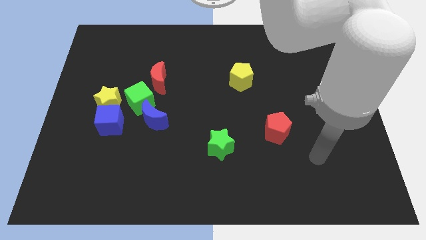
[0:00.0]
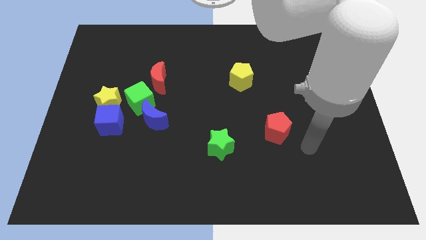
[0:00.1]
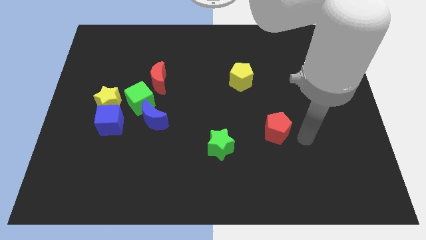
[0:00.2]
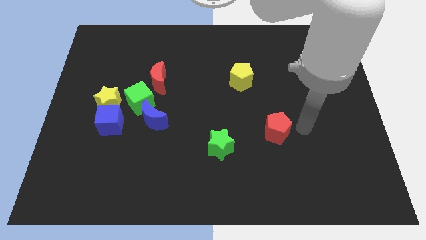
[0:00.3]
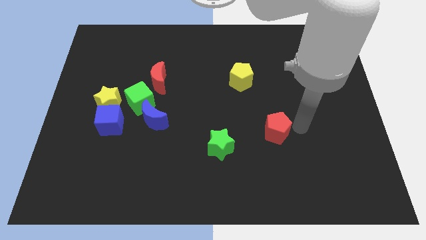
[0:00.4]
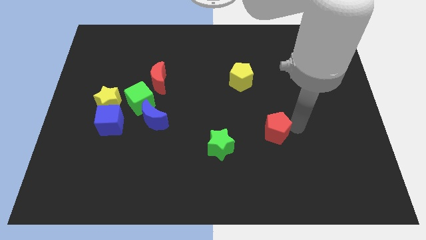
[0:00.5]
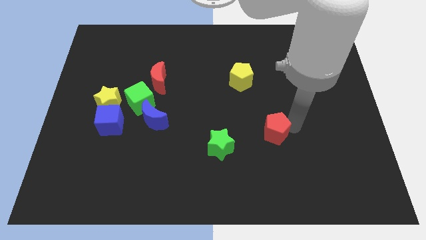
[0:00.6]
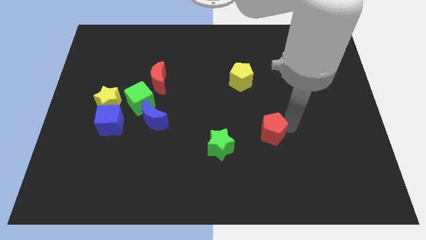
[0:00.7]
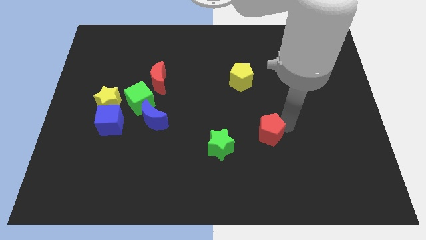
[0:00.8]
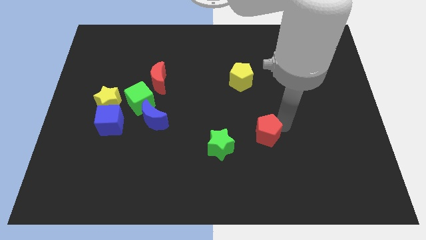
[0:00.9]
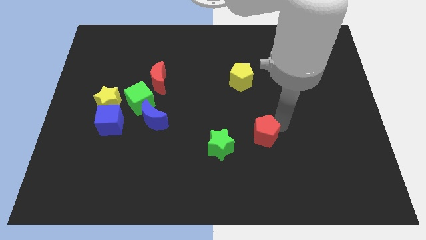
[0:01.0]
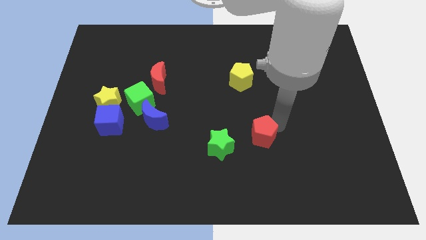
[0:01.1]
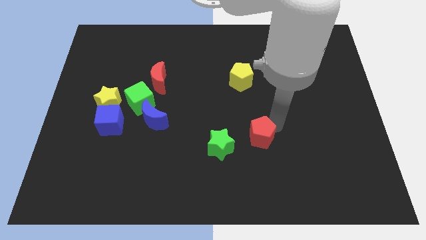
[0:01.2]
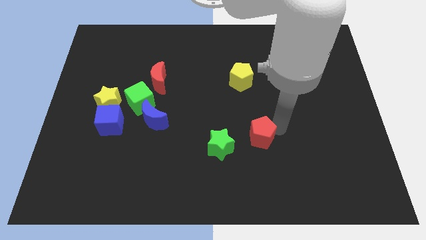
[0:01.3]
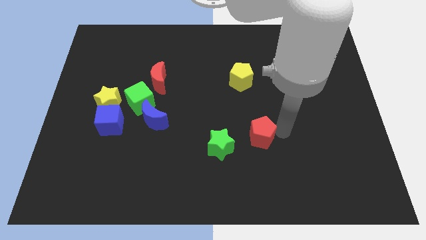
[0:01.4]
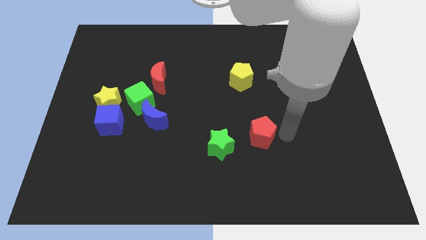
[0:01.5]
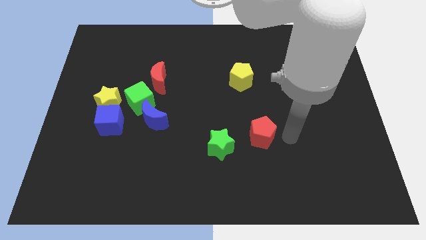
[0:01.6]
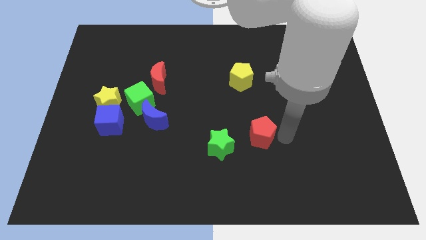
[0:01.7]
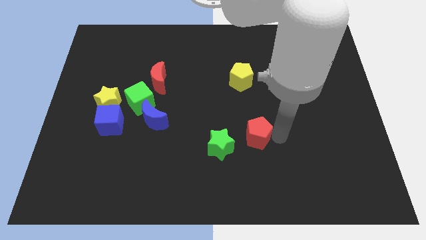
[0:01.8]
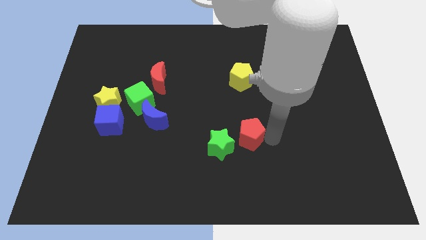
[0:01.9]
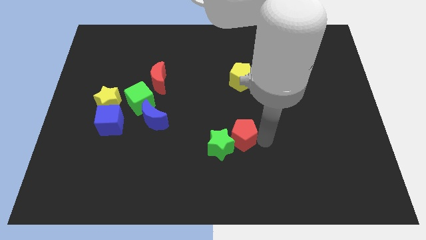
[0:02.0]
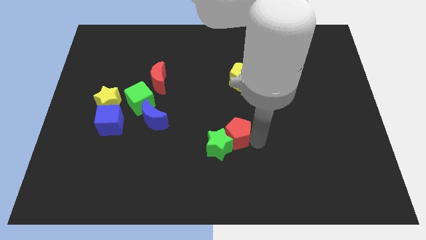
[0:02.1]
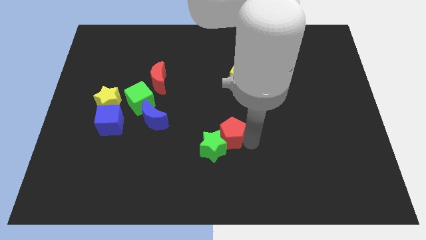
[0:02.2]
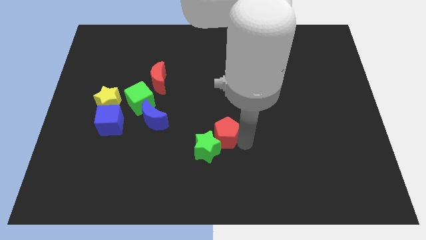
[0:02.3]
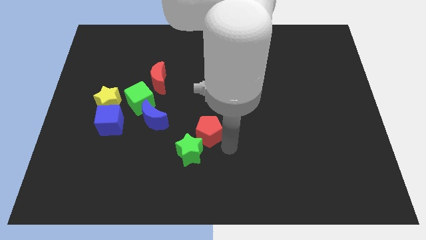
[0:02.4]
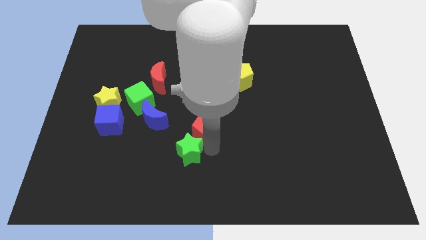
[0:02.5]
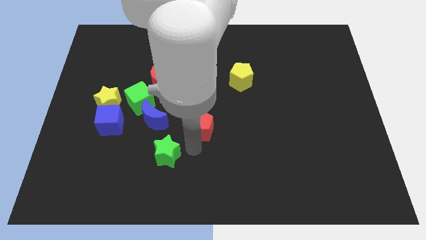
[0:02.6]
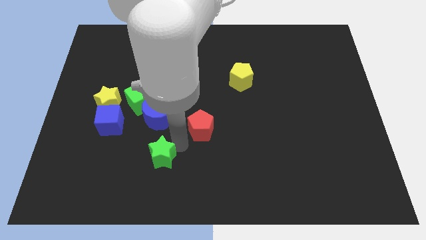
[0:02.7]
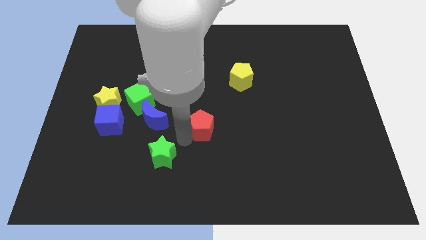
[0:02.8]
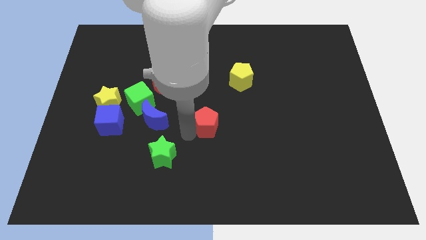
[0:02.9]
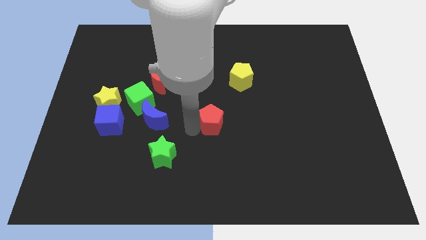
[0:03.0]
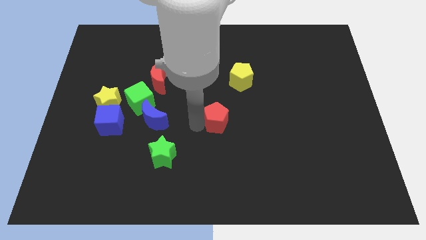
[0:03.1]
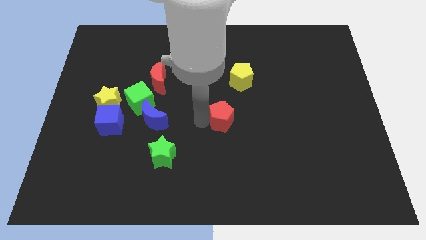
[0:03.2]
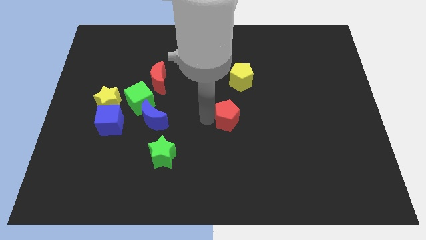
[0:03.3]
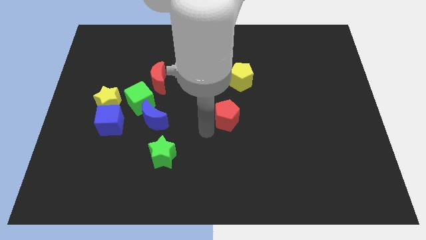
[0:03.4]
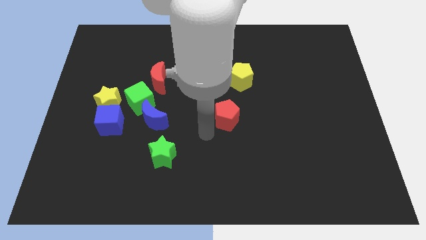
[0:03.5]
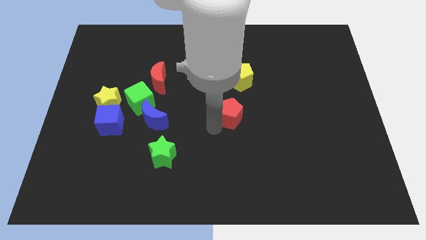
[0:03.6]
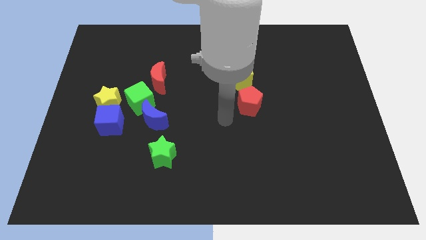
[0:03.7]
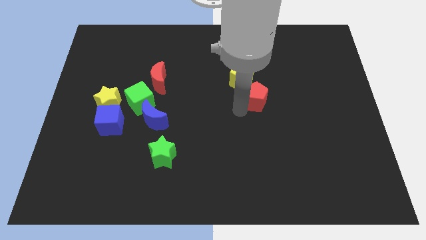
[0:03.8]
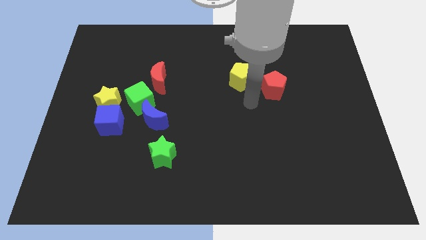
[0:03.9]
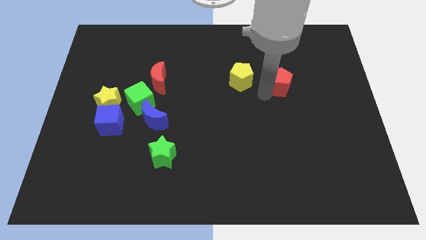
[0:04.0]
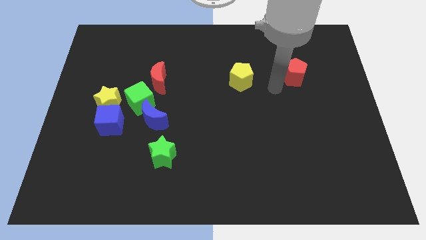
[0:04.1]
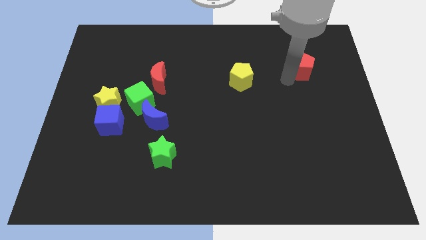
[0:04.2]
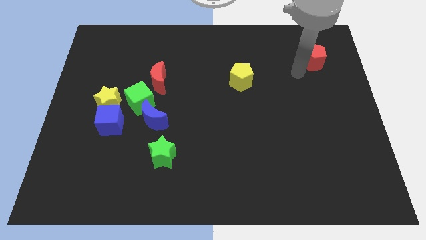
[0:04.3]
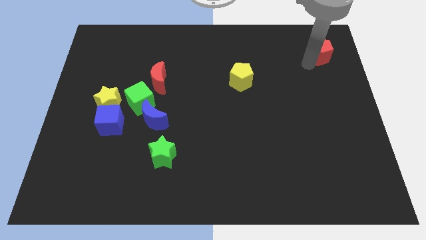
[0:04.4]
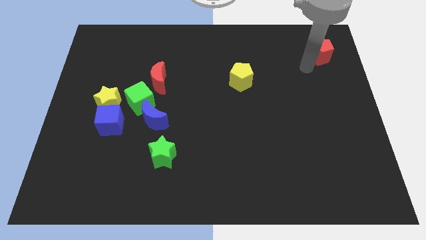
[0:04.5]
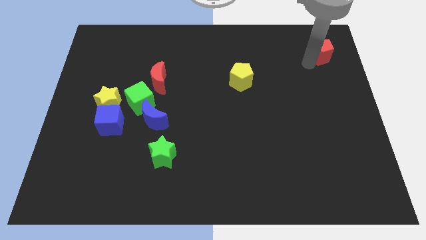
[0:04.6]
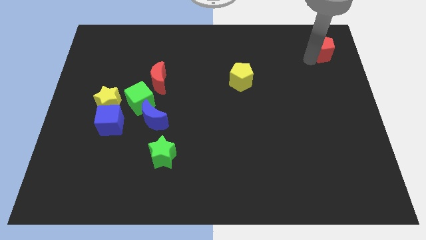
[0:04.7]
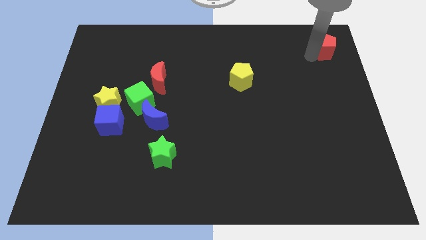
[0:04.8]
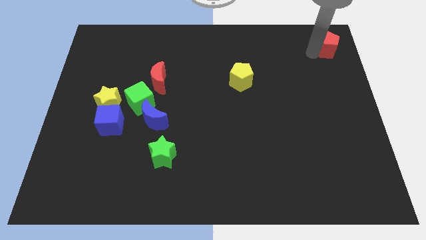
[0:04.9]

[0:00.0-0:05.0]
move the red pentagon to the upper right corner

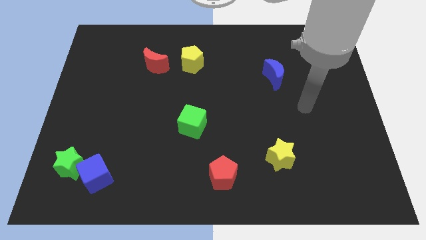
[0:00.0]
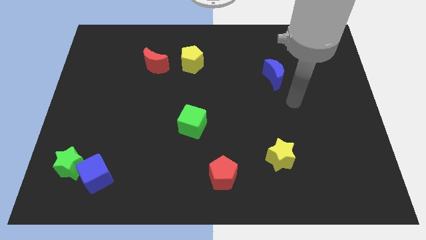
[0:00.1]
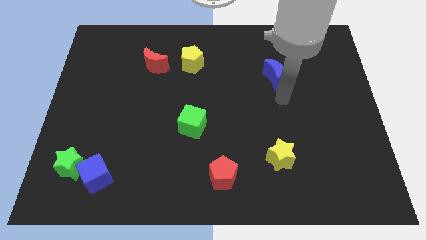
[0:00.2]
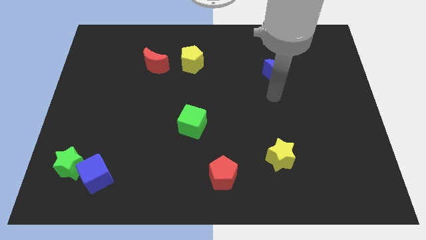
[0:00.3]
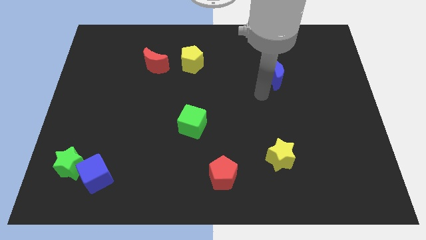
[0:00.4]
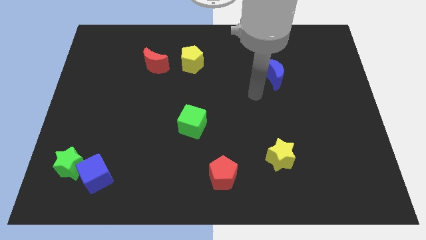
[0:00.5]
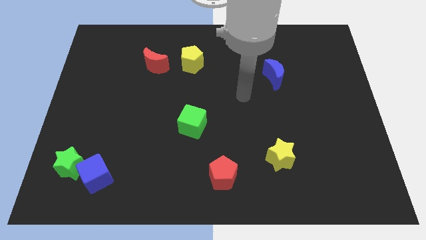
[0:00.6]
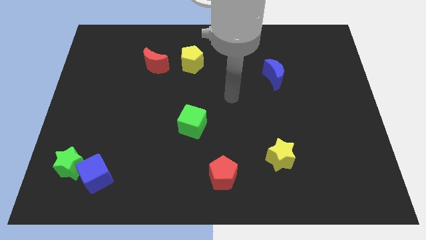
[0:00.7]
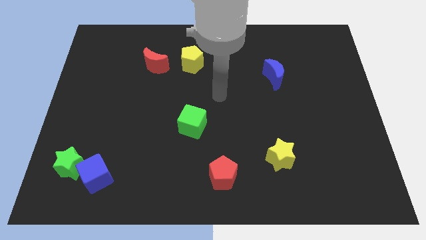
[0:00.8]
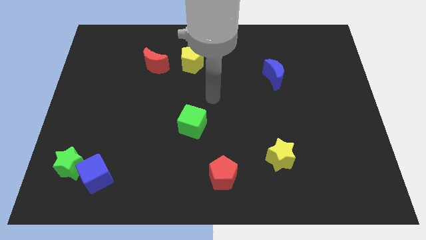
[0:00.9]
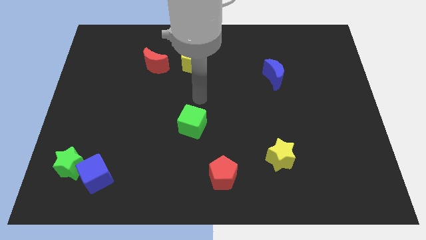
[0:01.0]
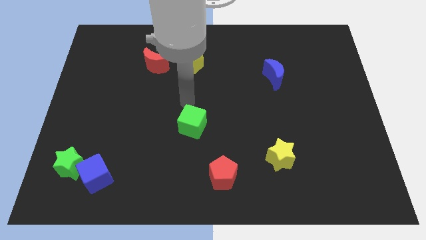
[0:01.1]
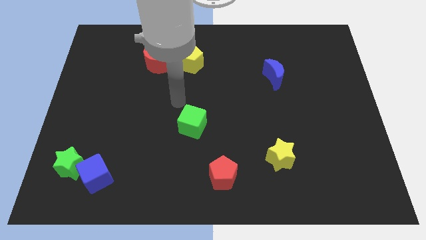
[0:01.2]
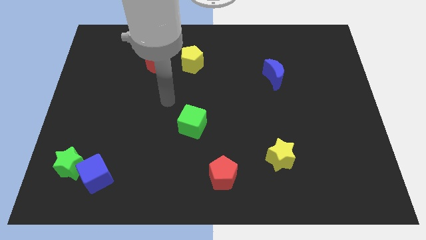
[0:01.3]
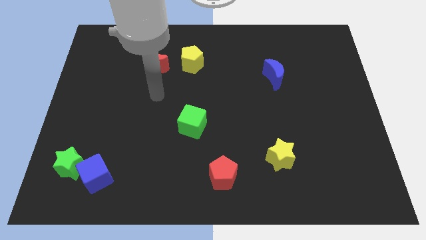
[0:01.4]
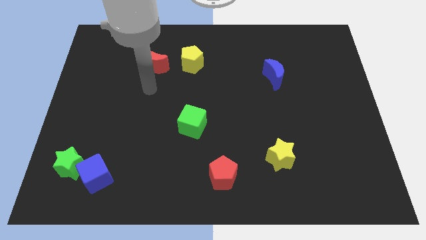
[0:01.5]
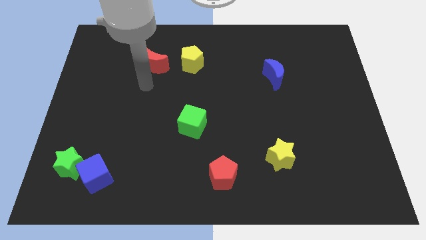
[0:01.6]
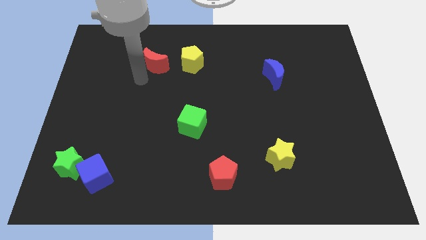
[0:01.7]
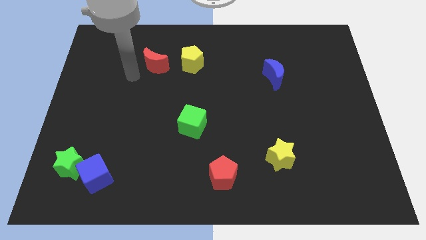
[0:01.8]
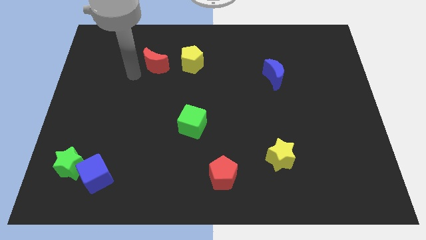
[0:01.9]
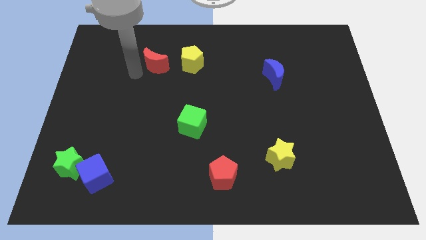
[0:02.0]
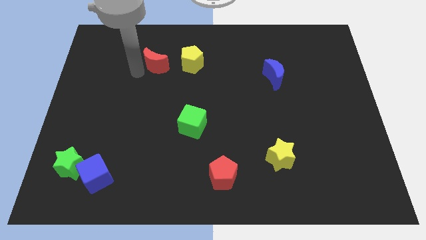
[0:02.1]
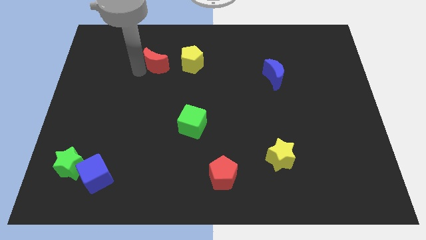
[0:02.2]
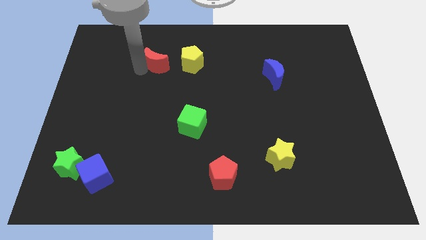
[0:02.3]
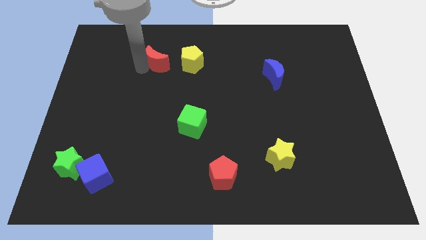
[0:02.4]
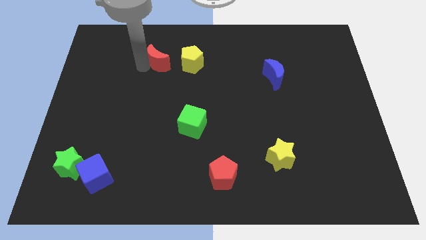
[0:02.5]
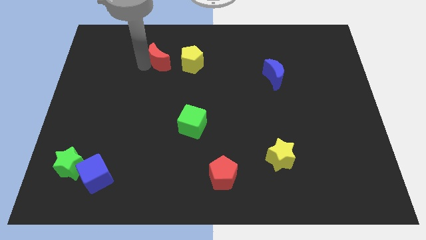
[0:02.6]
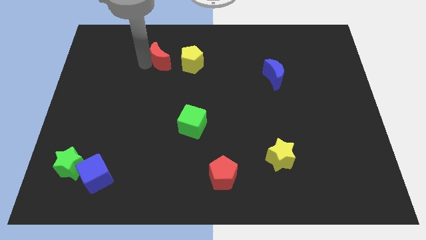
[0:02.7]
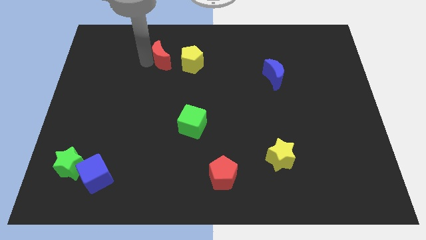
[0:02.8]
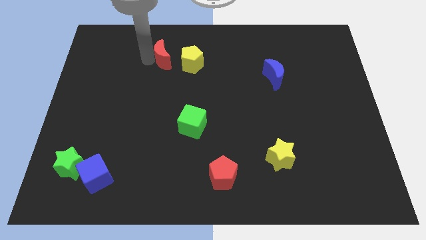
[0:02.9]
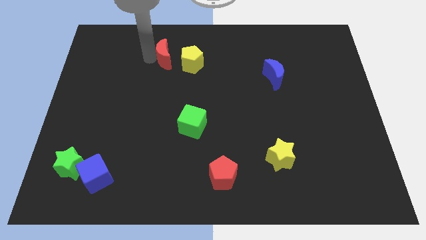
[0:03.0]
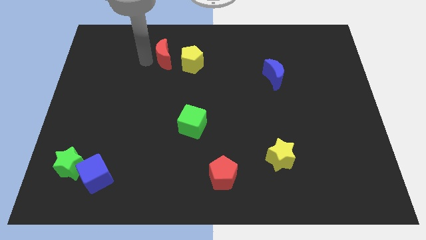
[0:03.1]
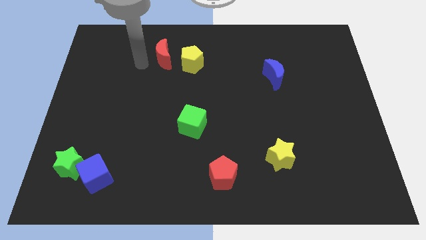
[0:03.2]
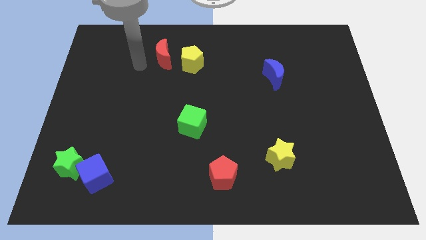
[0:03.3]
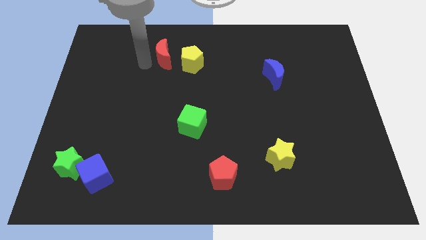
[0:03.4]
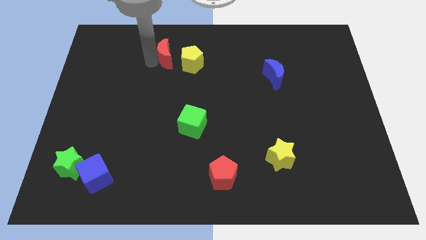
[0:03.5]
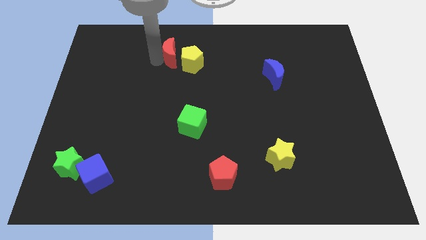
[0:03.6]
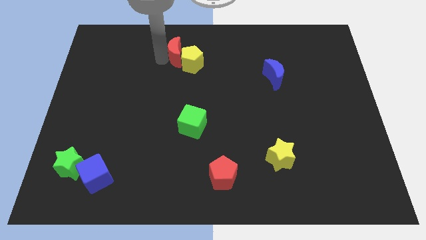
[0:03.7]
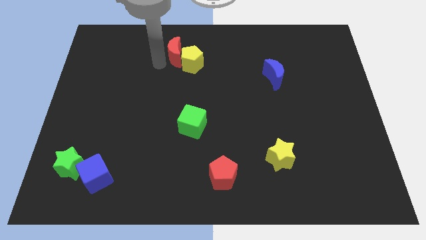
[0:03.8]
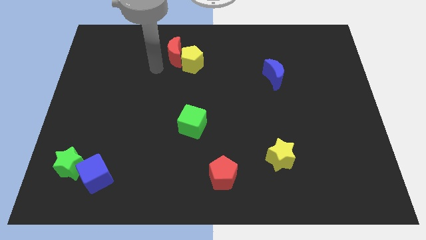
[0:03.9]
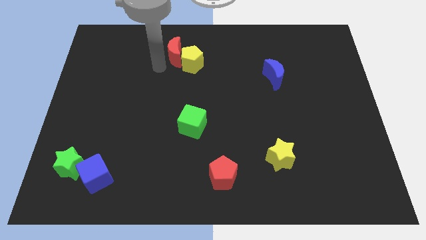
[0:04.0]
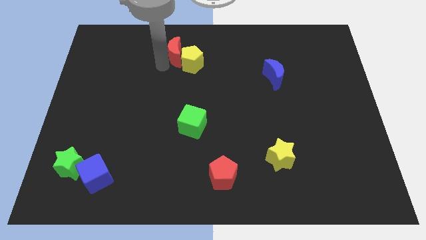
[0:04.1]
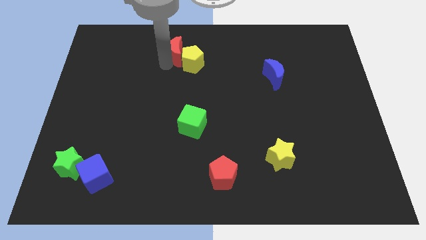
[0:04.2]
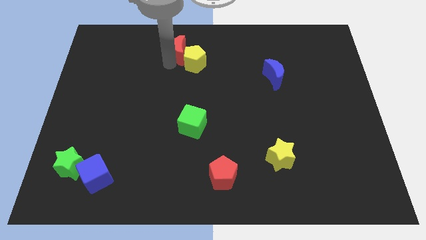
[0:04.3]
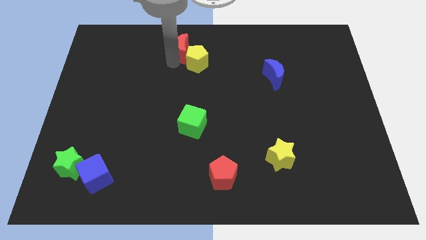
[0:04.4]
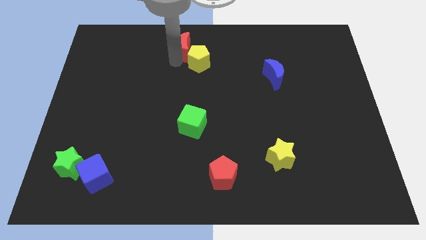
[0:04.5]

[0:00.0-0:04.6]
move the red moon to the top side
